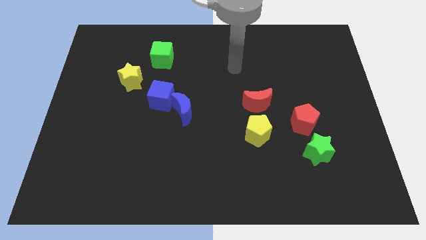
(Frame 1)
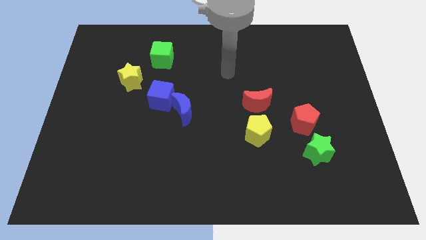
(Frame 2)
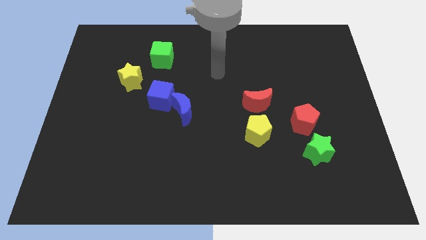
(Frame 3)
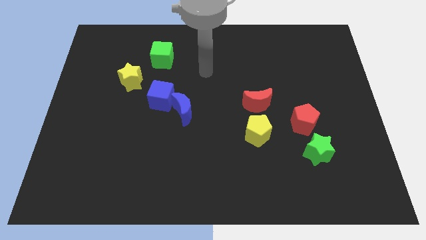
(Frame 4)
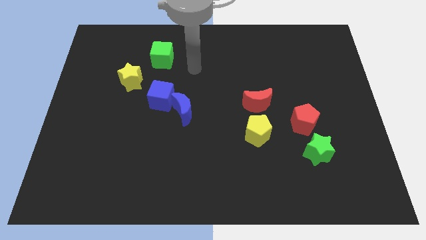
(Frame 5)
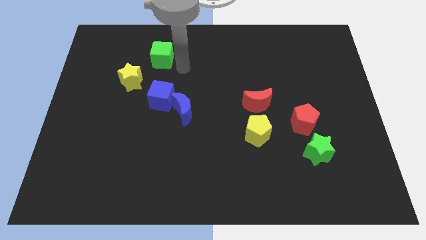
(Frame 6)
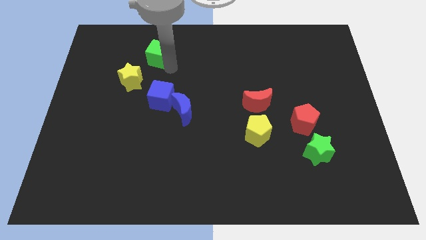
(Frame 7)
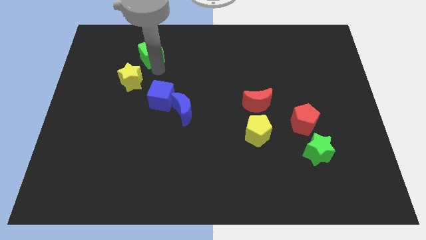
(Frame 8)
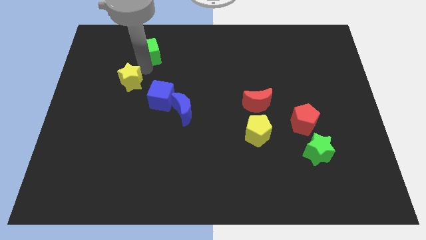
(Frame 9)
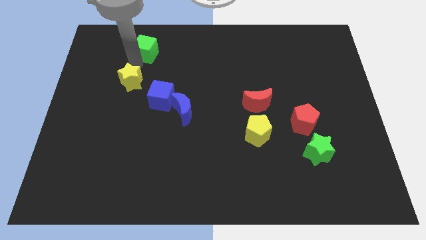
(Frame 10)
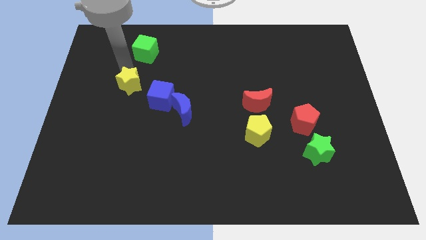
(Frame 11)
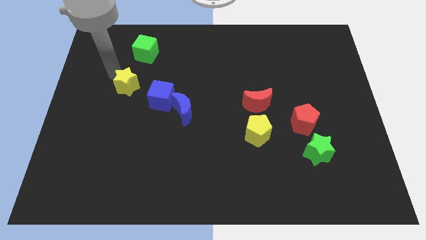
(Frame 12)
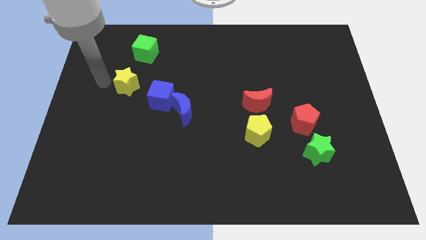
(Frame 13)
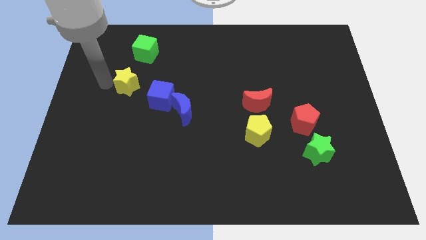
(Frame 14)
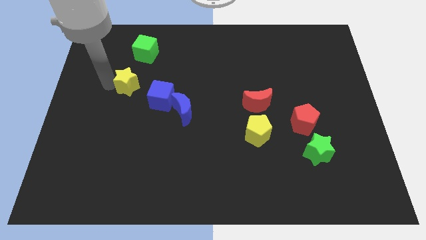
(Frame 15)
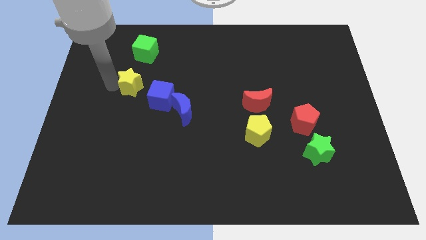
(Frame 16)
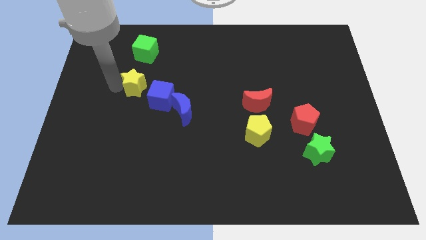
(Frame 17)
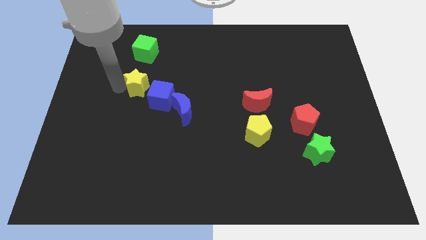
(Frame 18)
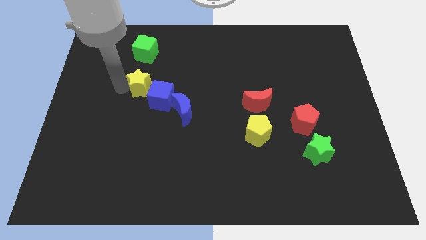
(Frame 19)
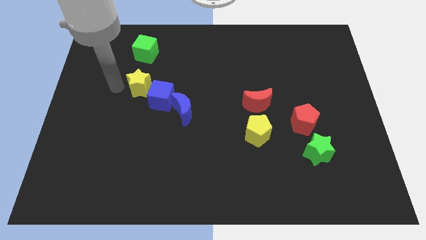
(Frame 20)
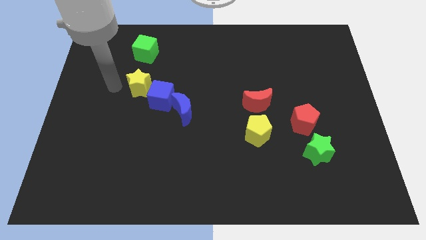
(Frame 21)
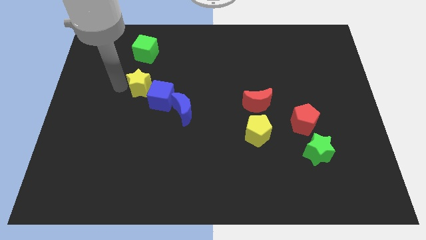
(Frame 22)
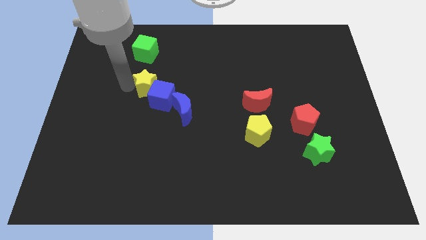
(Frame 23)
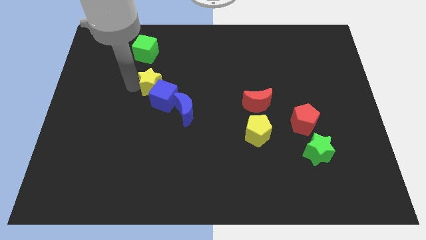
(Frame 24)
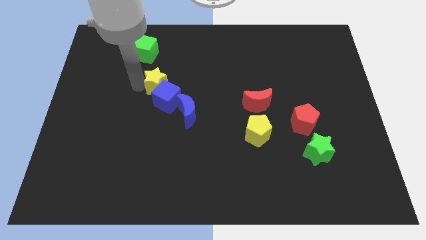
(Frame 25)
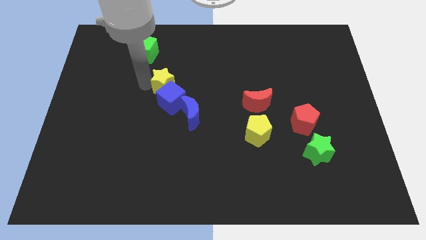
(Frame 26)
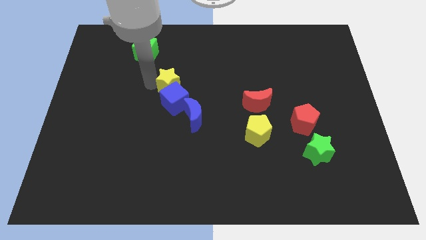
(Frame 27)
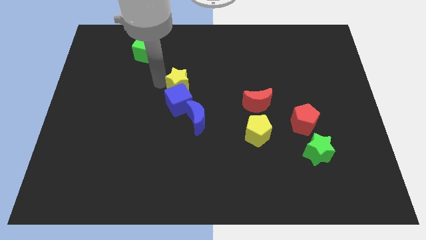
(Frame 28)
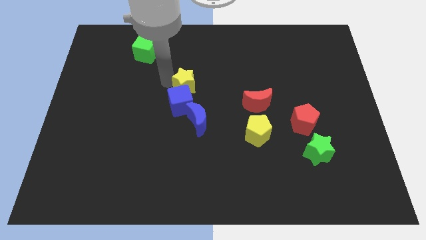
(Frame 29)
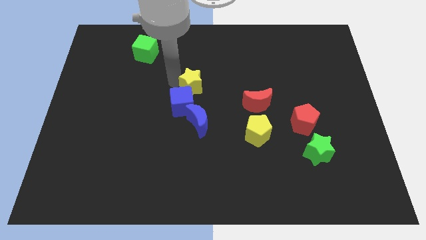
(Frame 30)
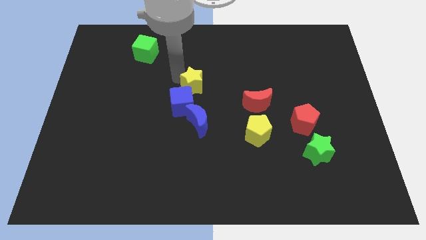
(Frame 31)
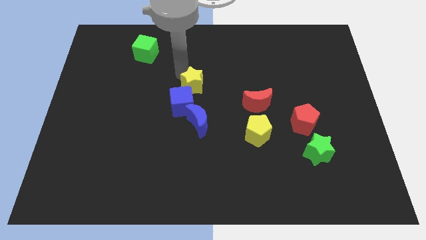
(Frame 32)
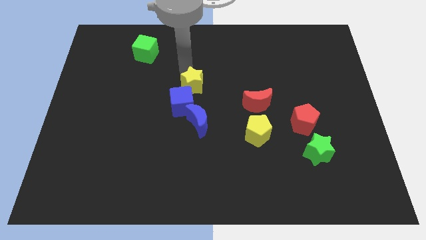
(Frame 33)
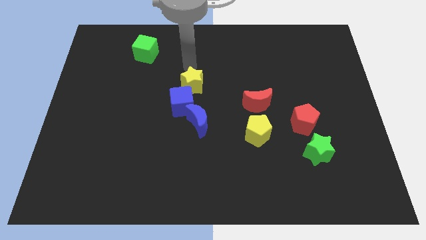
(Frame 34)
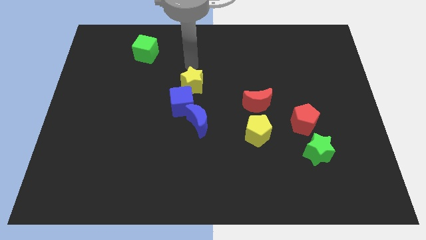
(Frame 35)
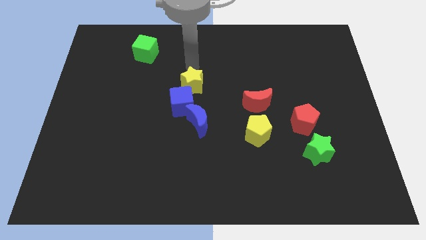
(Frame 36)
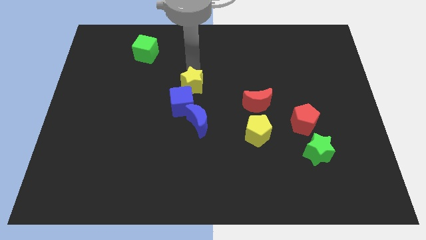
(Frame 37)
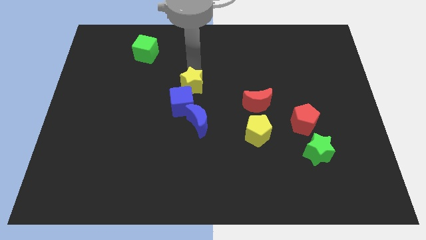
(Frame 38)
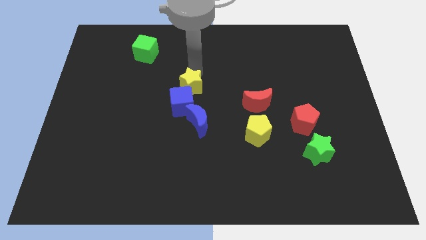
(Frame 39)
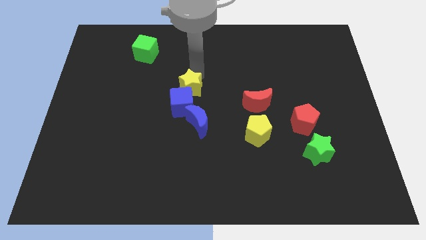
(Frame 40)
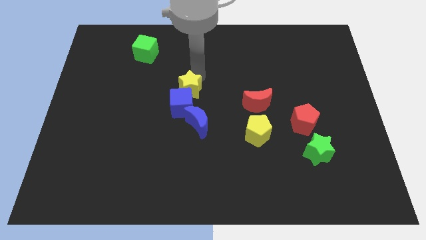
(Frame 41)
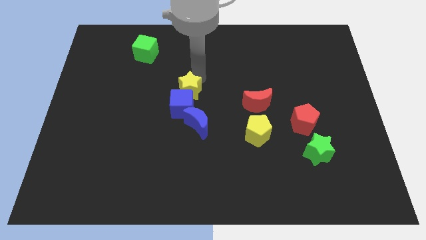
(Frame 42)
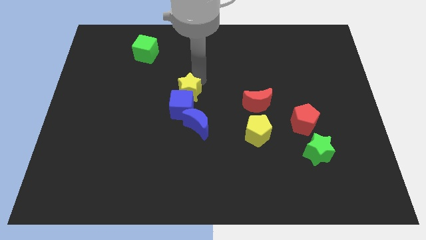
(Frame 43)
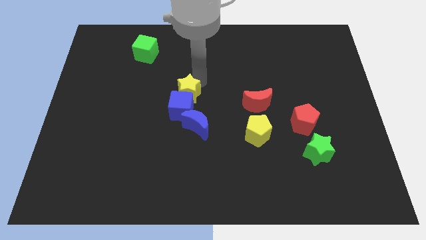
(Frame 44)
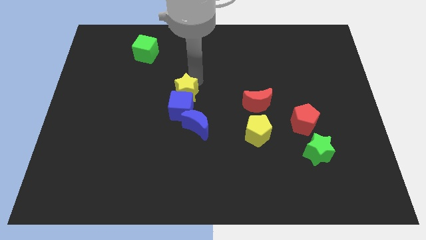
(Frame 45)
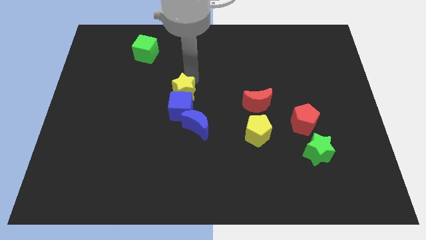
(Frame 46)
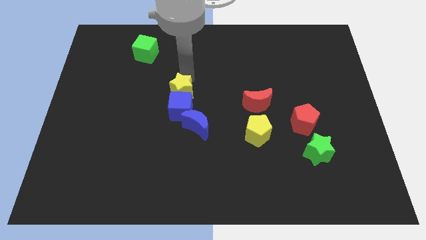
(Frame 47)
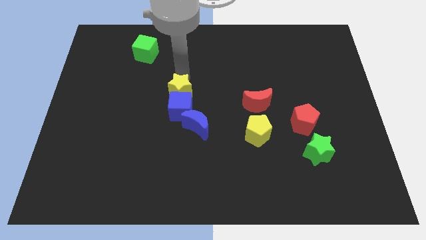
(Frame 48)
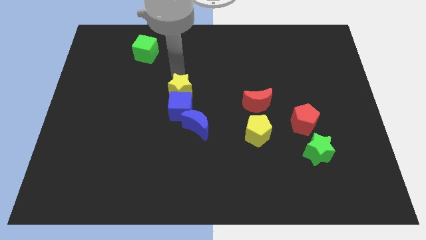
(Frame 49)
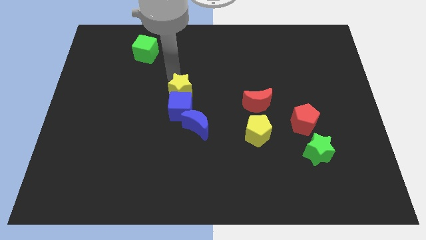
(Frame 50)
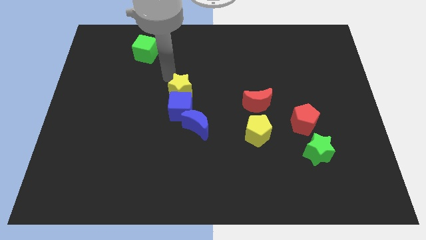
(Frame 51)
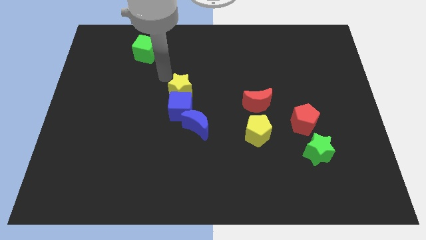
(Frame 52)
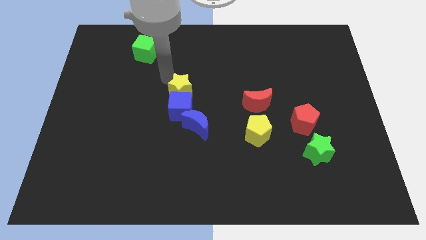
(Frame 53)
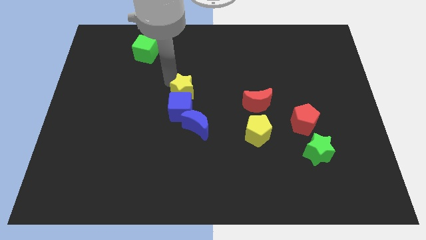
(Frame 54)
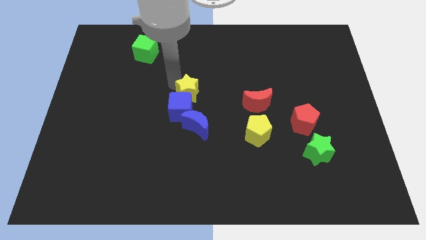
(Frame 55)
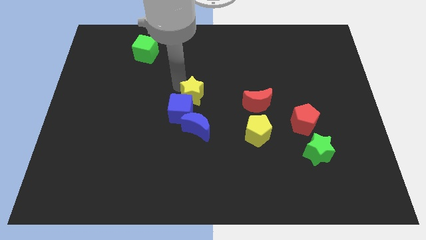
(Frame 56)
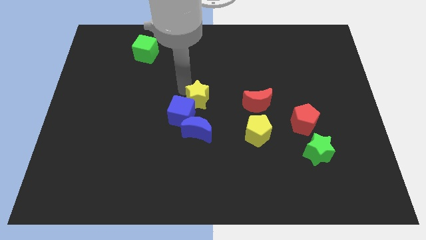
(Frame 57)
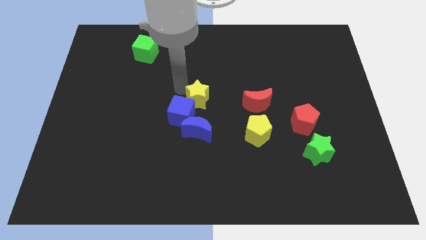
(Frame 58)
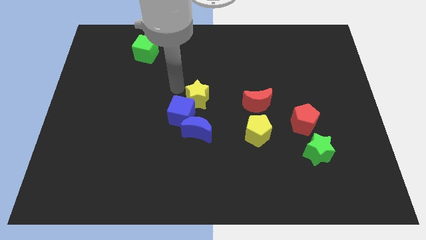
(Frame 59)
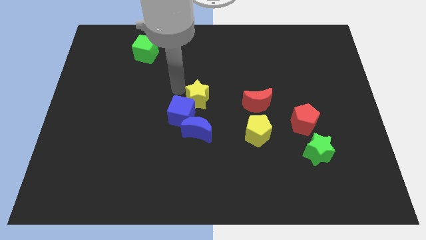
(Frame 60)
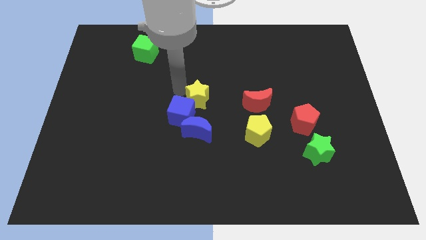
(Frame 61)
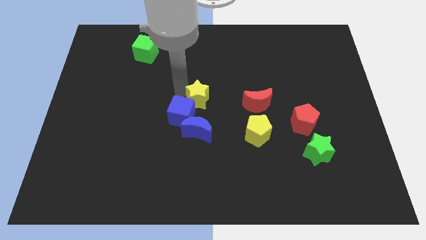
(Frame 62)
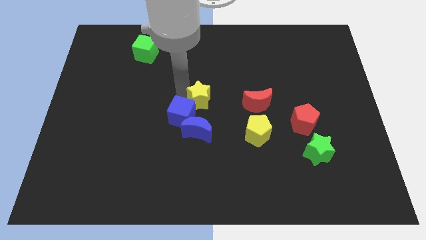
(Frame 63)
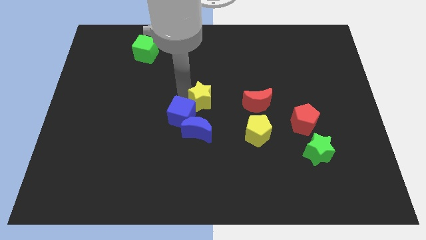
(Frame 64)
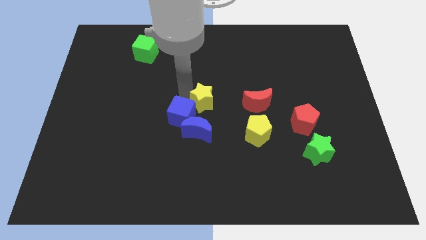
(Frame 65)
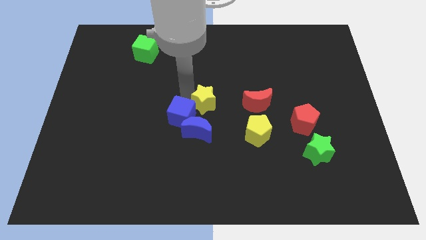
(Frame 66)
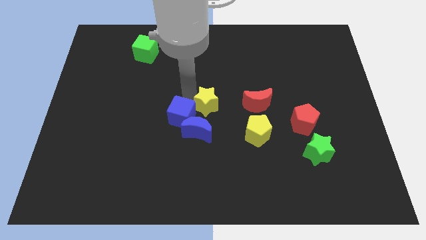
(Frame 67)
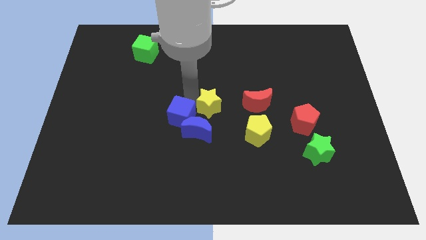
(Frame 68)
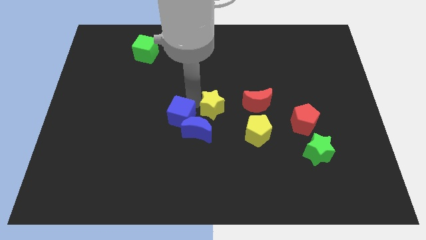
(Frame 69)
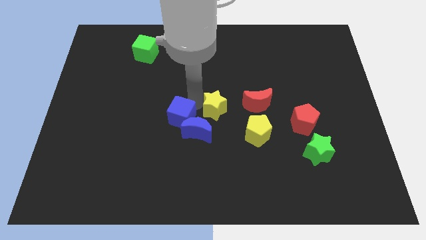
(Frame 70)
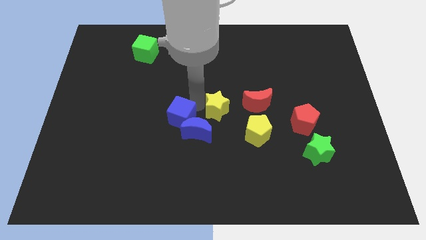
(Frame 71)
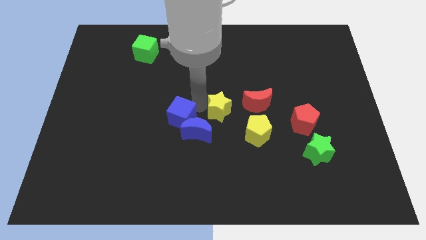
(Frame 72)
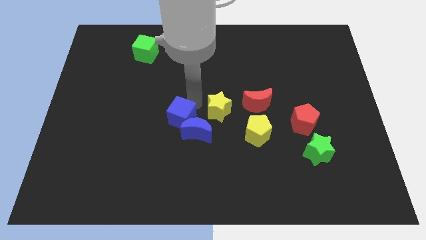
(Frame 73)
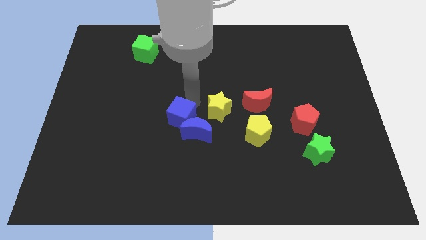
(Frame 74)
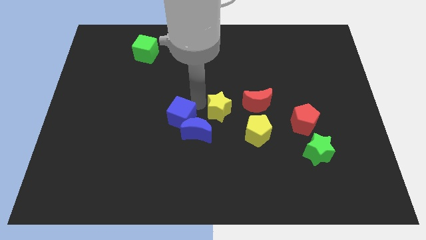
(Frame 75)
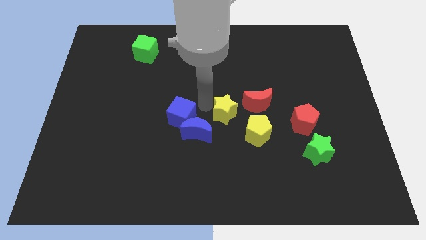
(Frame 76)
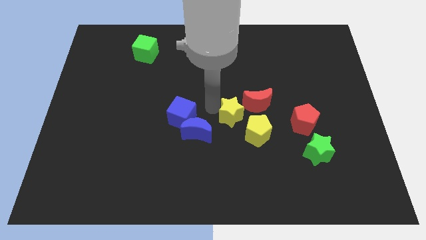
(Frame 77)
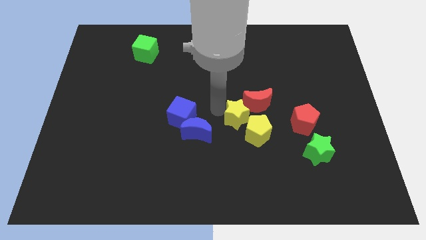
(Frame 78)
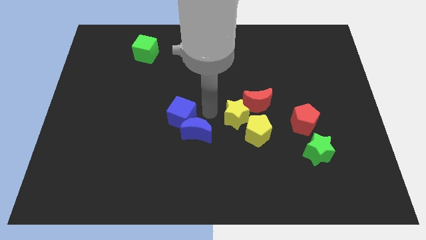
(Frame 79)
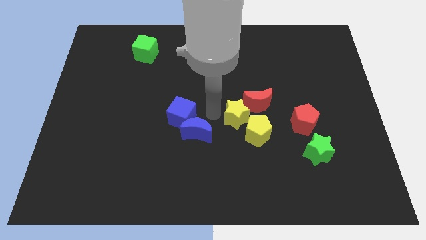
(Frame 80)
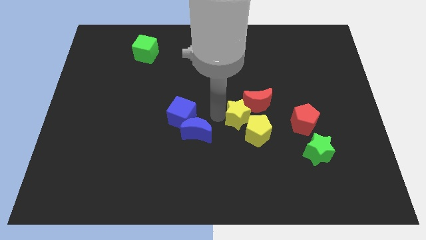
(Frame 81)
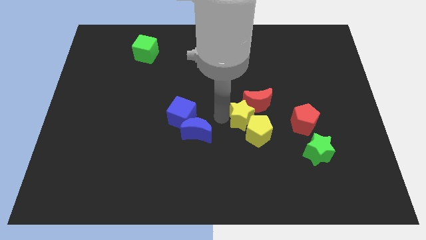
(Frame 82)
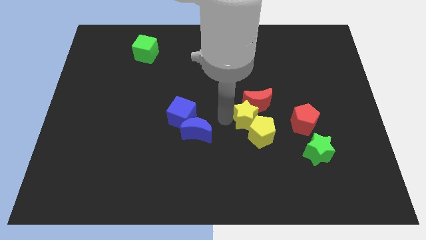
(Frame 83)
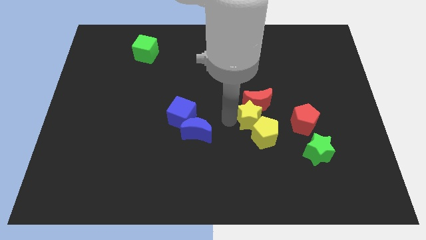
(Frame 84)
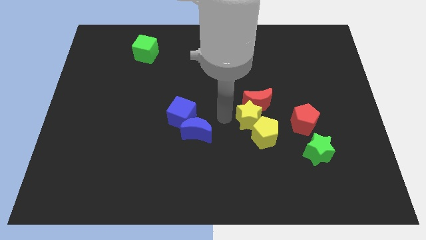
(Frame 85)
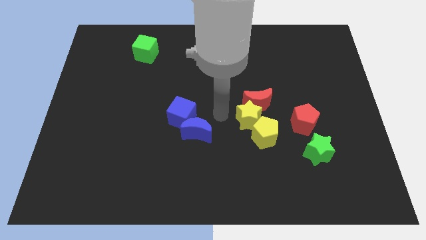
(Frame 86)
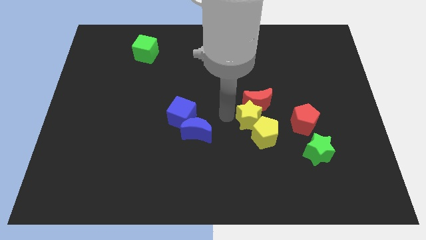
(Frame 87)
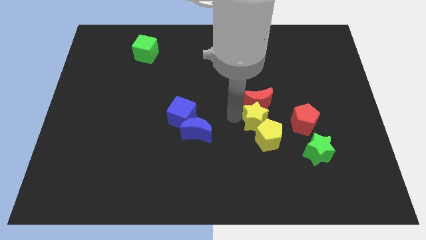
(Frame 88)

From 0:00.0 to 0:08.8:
slide the yellow star diagonally down and to the right of the red moon
